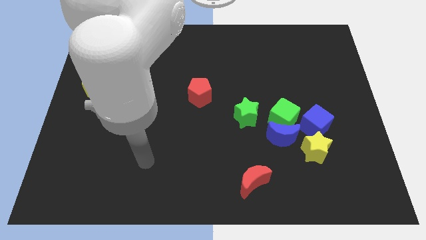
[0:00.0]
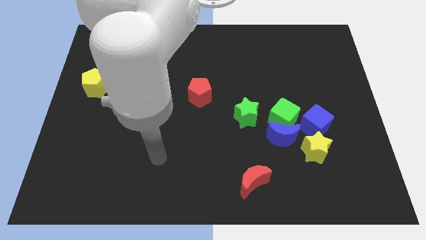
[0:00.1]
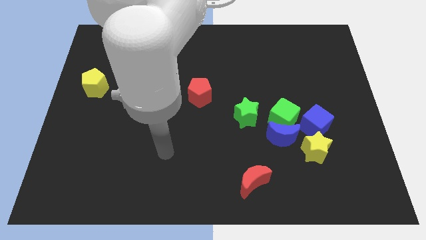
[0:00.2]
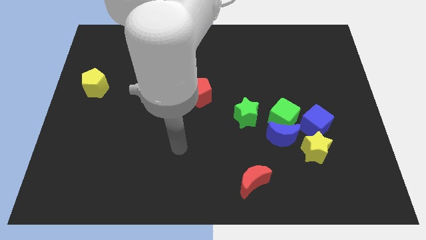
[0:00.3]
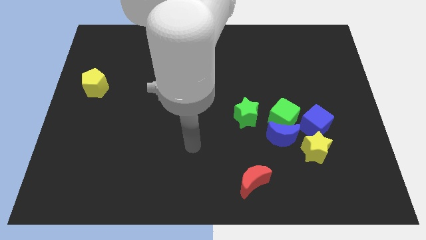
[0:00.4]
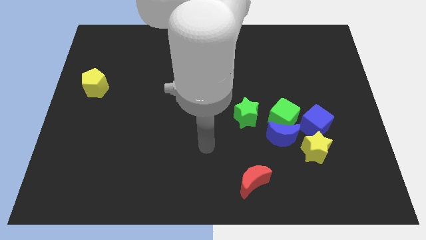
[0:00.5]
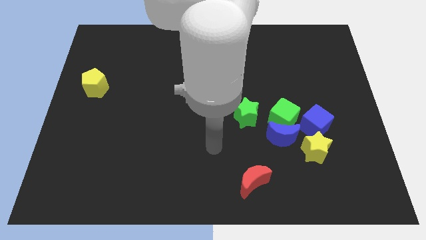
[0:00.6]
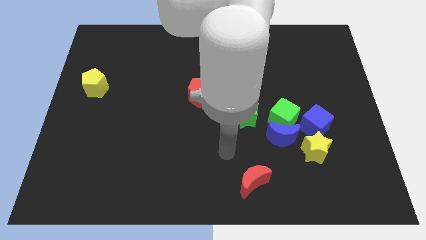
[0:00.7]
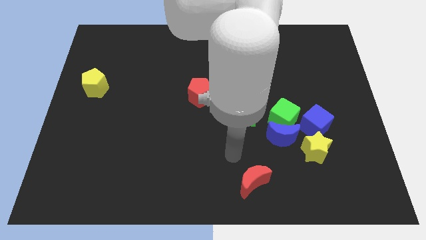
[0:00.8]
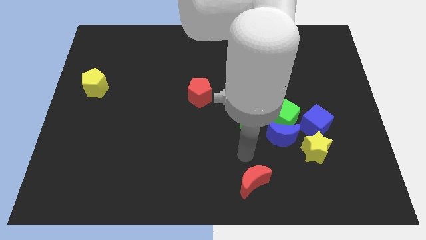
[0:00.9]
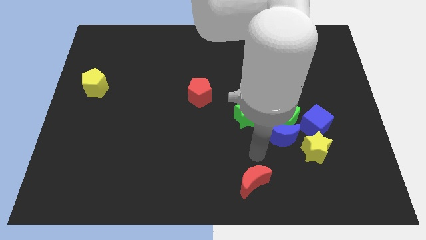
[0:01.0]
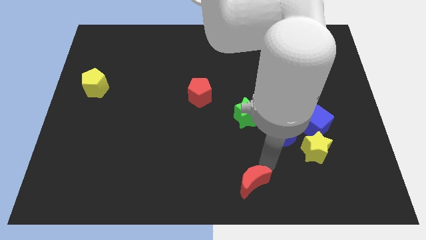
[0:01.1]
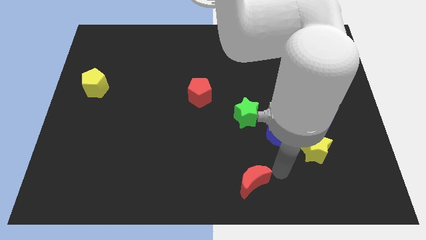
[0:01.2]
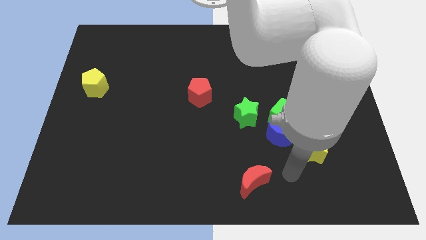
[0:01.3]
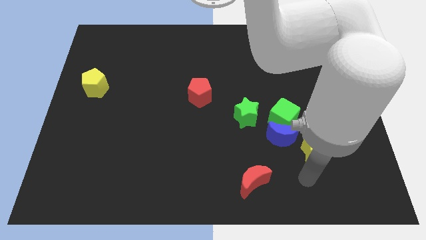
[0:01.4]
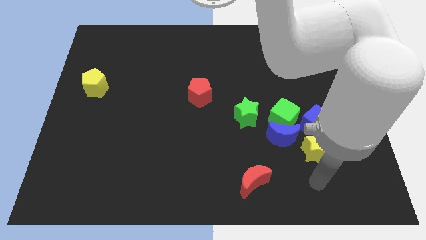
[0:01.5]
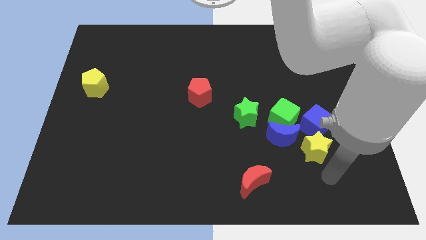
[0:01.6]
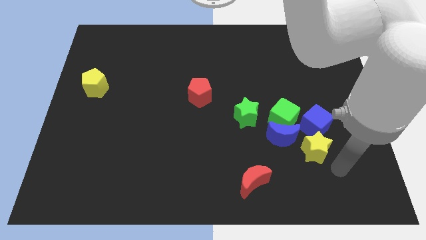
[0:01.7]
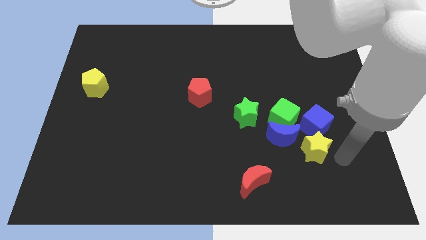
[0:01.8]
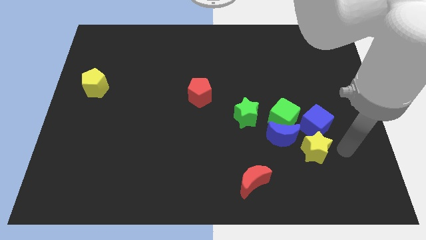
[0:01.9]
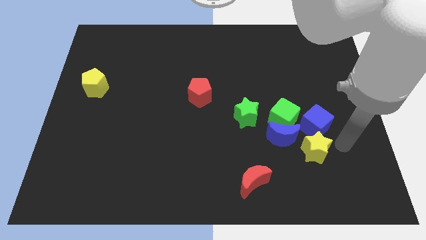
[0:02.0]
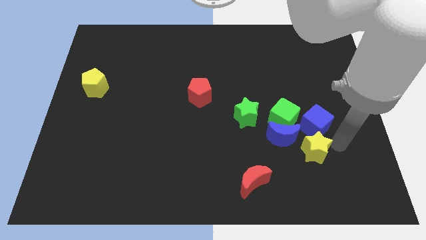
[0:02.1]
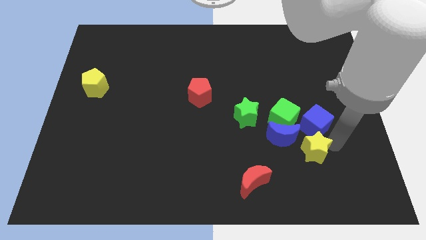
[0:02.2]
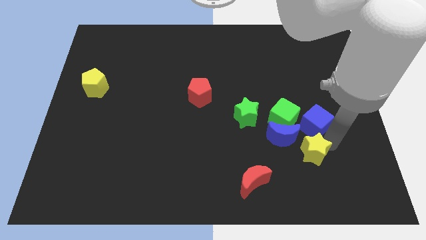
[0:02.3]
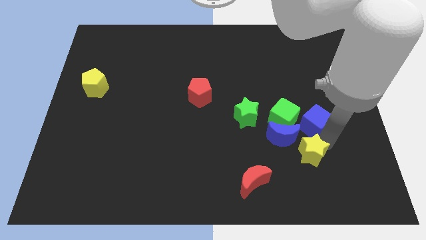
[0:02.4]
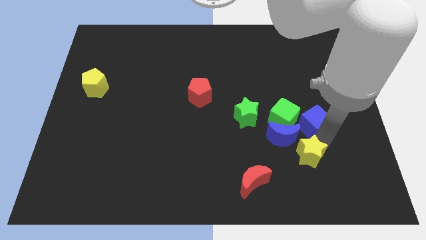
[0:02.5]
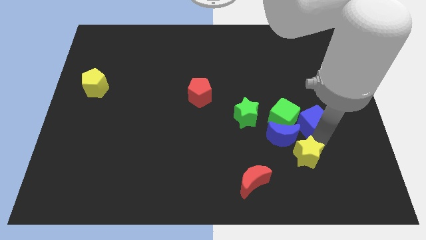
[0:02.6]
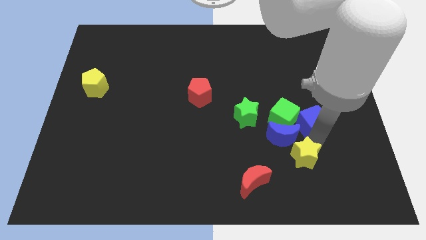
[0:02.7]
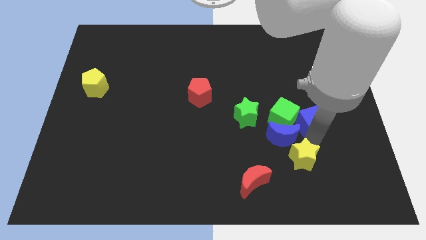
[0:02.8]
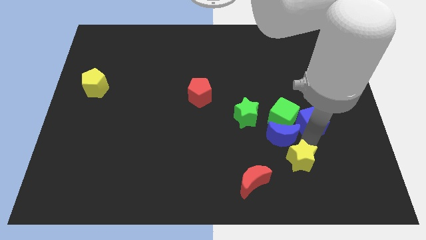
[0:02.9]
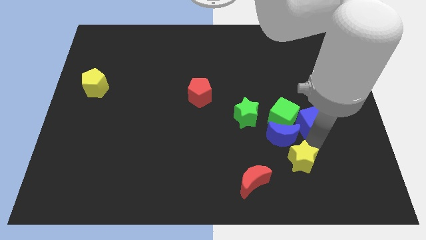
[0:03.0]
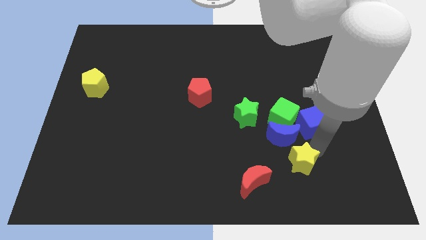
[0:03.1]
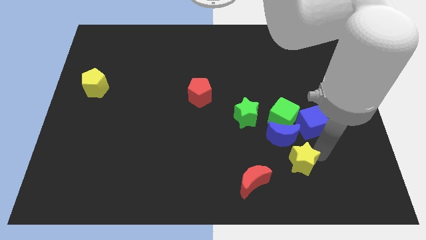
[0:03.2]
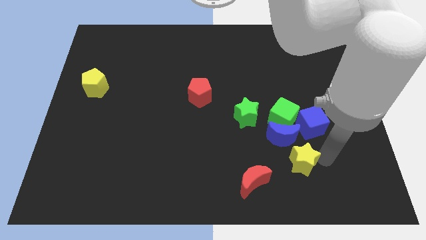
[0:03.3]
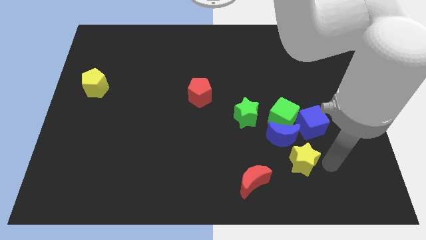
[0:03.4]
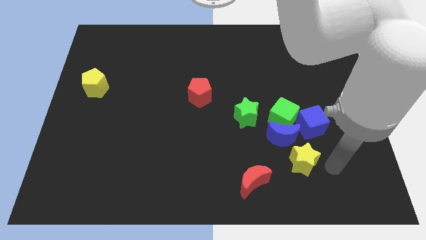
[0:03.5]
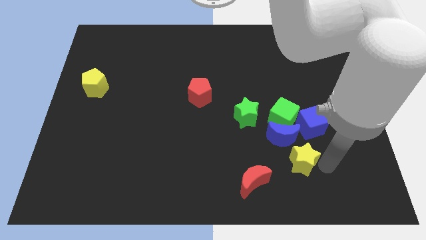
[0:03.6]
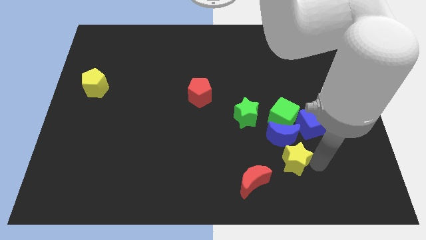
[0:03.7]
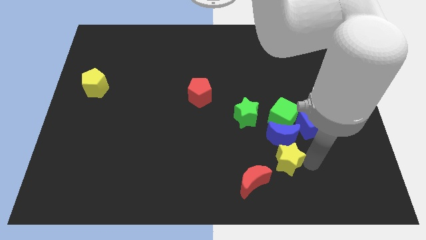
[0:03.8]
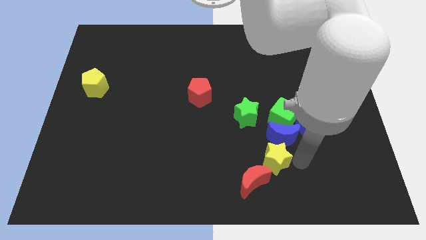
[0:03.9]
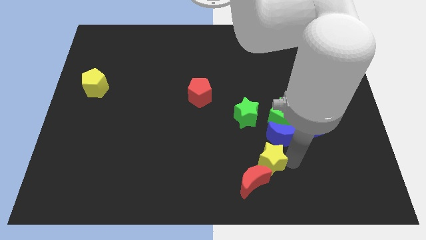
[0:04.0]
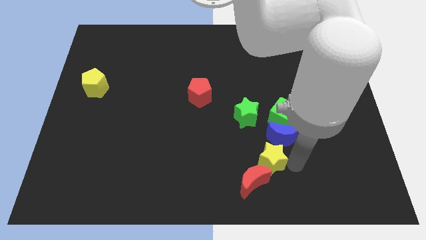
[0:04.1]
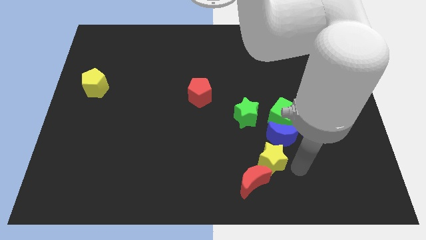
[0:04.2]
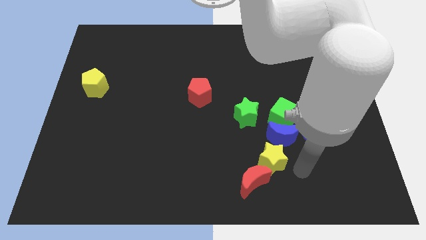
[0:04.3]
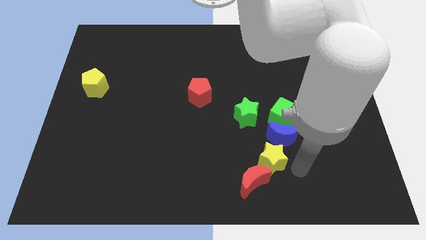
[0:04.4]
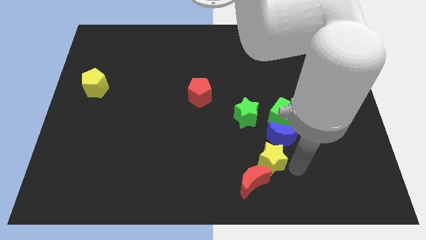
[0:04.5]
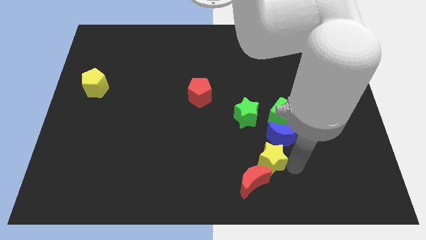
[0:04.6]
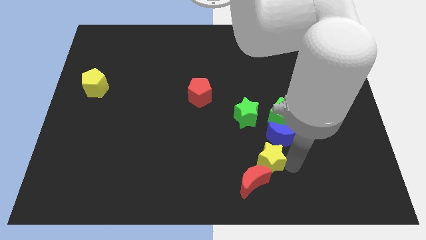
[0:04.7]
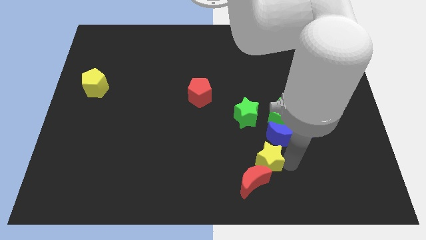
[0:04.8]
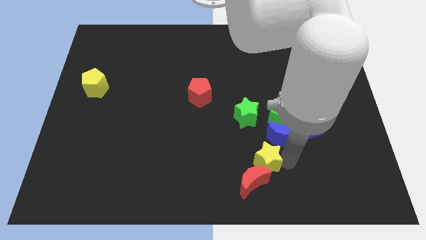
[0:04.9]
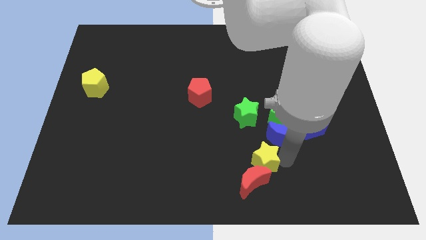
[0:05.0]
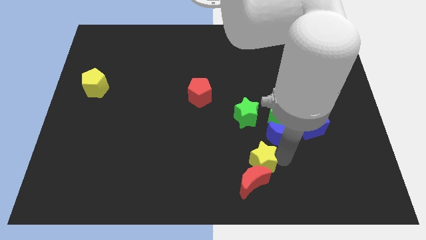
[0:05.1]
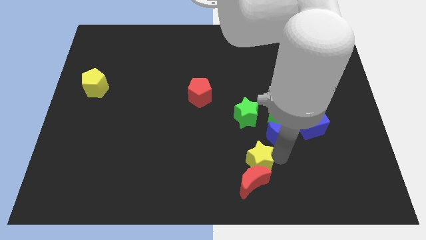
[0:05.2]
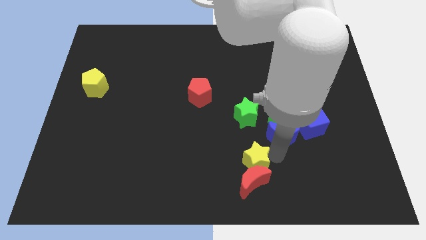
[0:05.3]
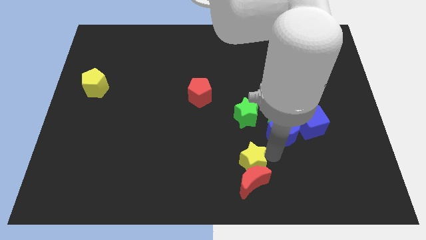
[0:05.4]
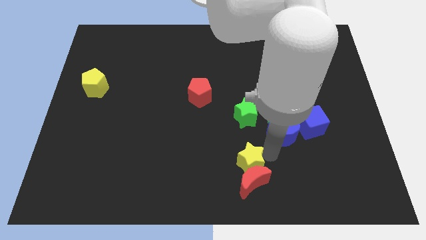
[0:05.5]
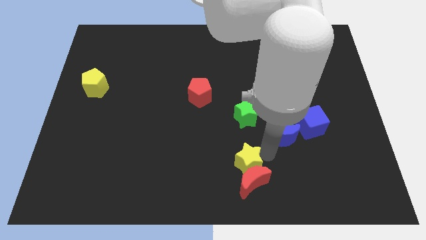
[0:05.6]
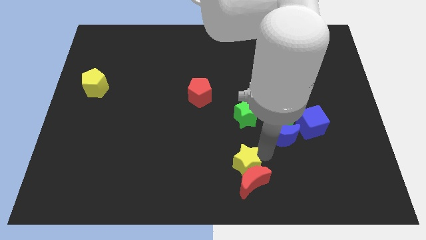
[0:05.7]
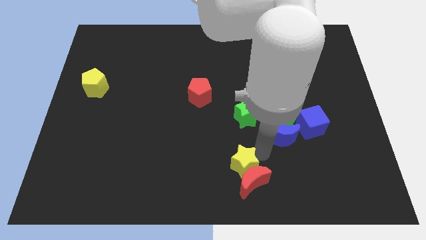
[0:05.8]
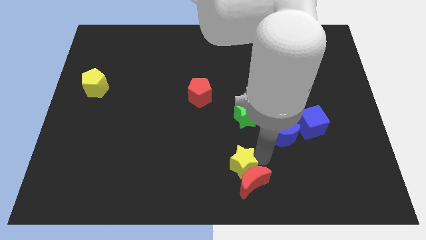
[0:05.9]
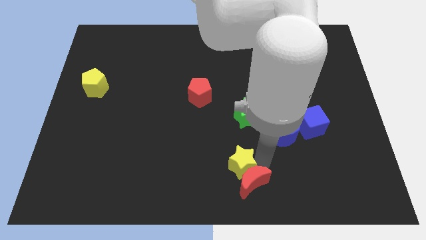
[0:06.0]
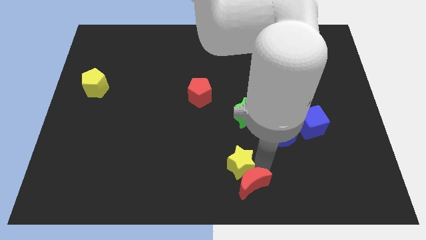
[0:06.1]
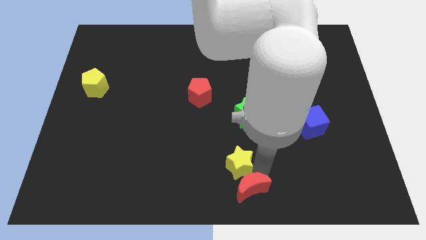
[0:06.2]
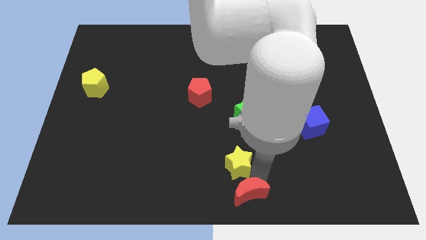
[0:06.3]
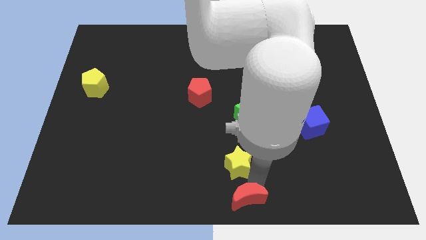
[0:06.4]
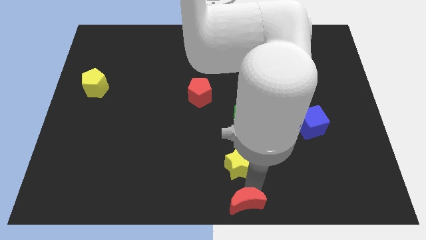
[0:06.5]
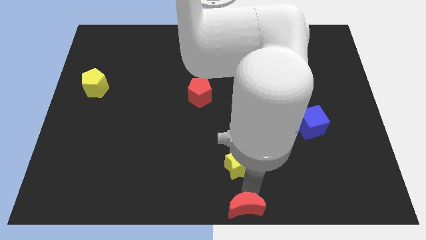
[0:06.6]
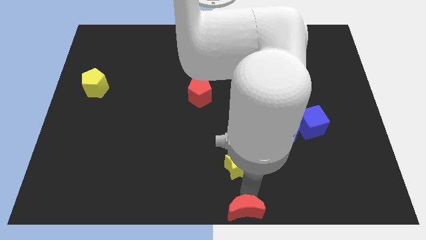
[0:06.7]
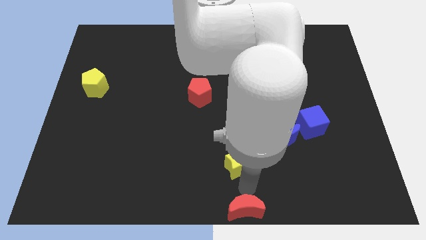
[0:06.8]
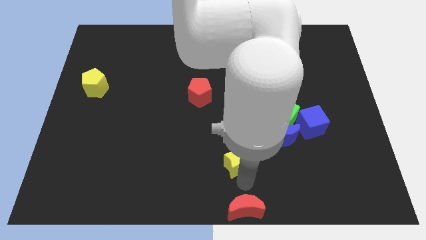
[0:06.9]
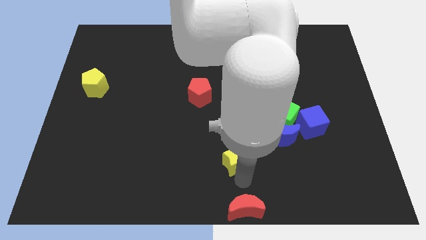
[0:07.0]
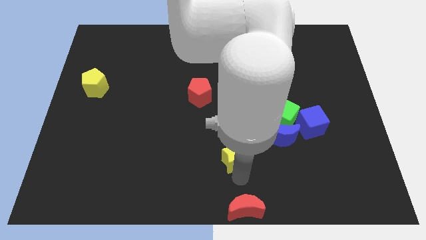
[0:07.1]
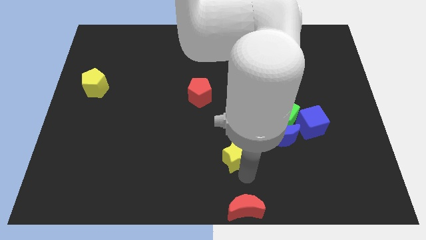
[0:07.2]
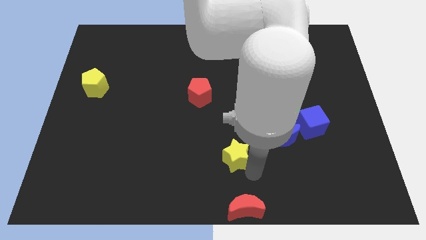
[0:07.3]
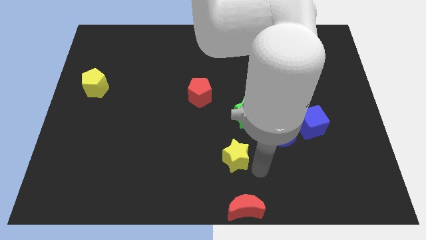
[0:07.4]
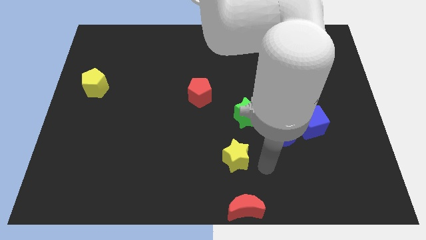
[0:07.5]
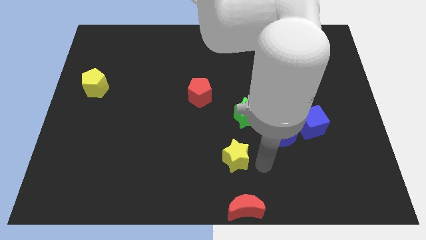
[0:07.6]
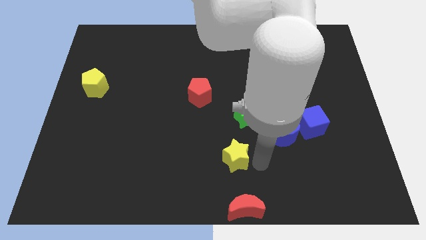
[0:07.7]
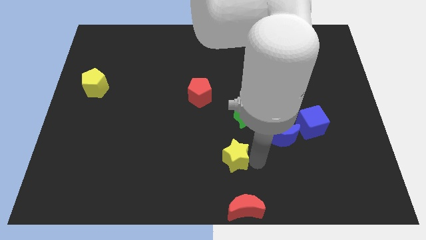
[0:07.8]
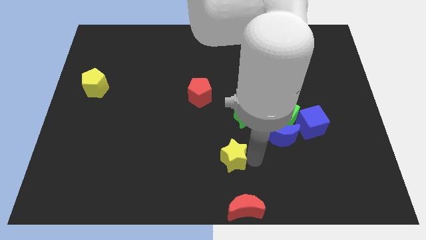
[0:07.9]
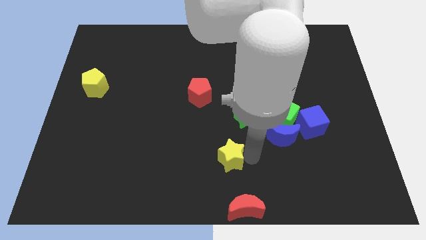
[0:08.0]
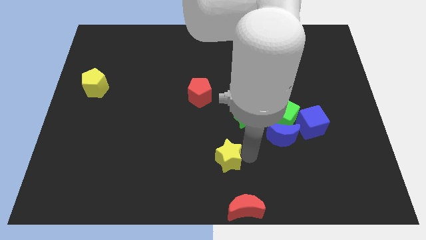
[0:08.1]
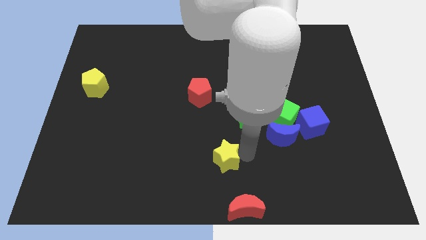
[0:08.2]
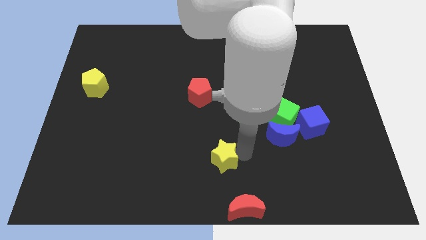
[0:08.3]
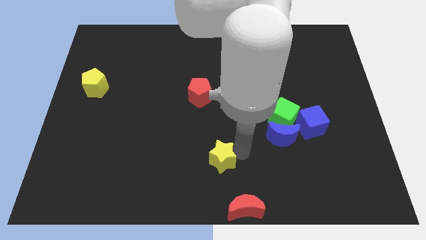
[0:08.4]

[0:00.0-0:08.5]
slide the yellow star left
